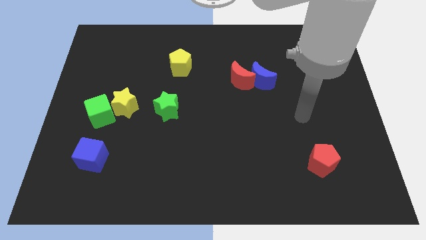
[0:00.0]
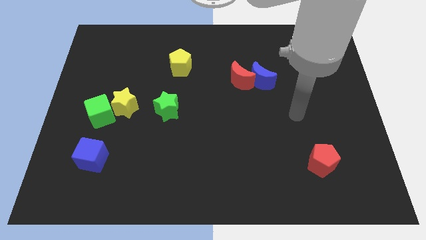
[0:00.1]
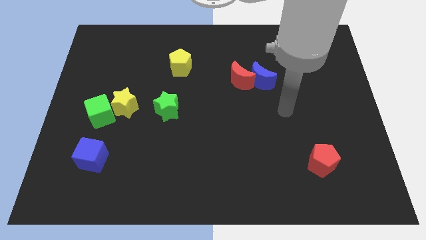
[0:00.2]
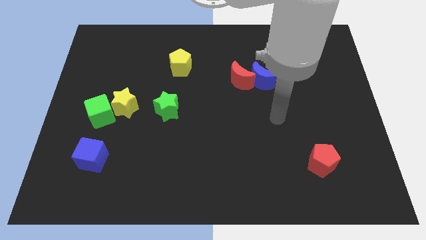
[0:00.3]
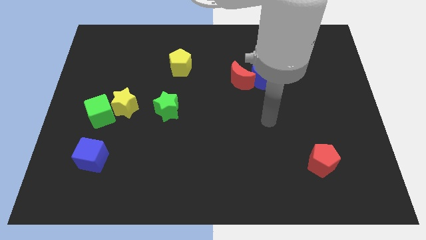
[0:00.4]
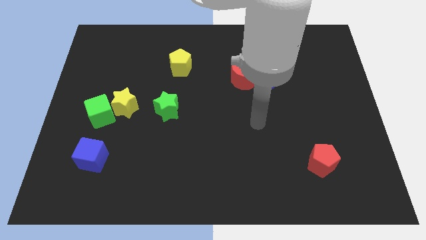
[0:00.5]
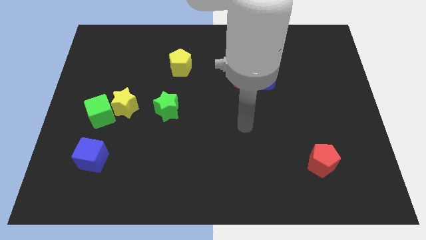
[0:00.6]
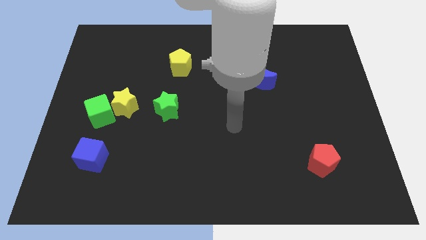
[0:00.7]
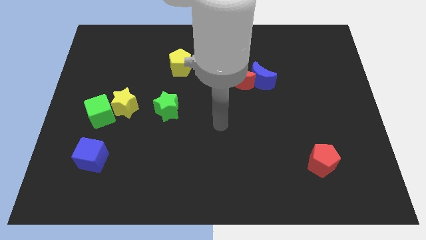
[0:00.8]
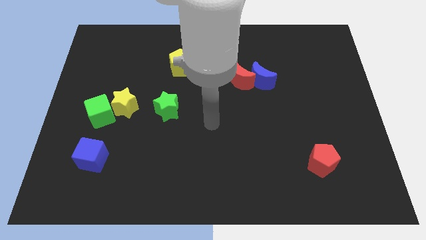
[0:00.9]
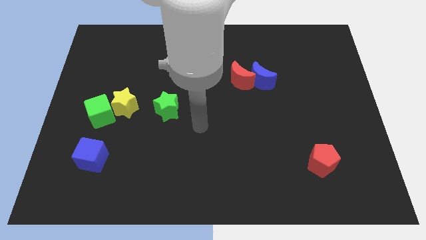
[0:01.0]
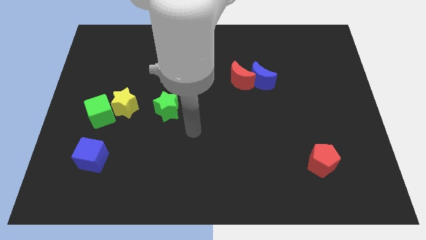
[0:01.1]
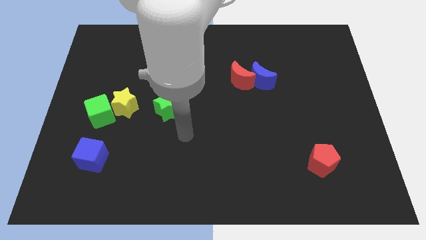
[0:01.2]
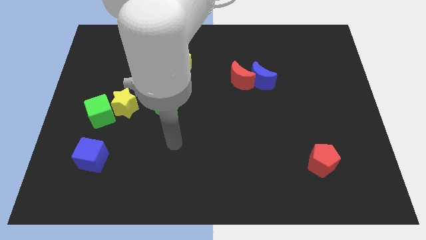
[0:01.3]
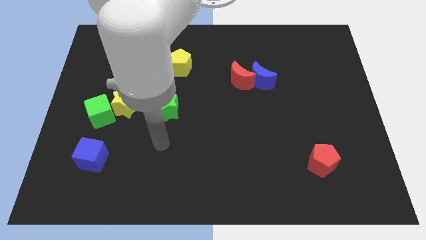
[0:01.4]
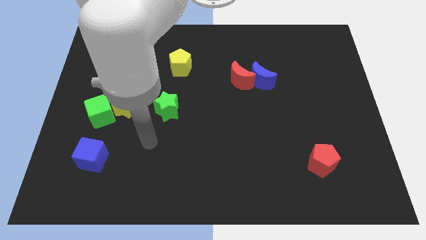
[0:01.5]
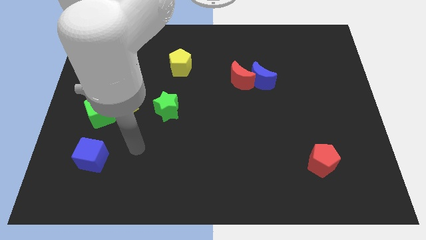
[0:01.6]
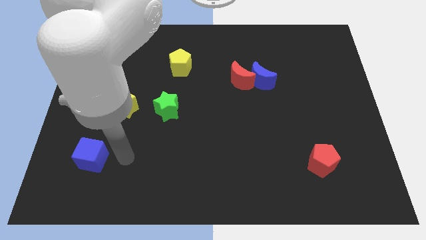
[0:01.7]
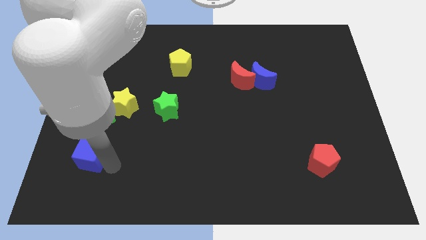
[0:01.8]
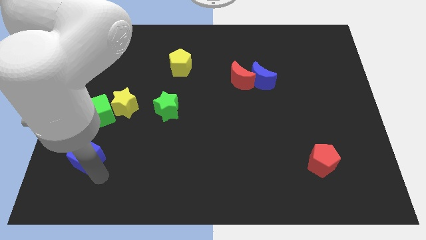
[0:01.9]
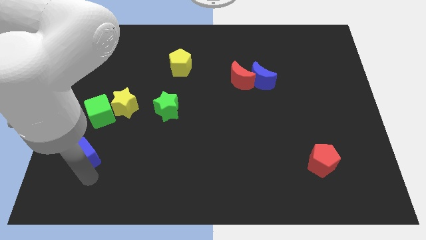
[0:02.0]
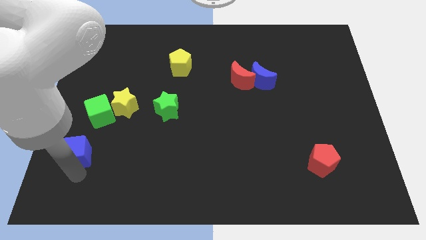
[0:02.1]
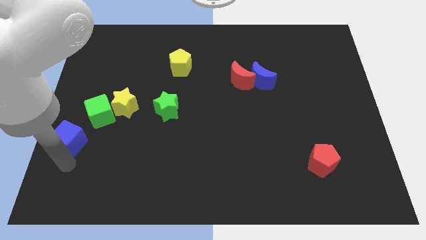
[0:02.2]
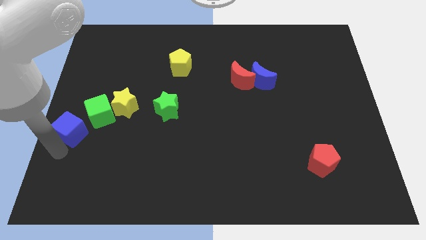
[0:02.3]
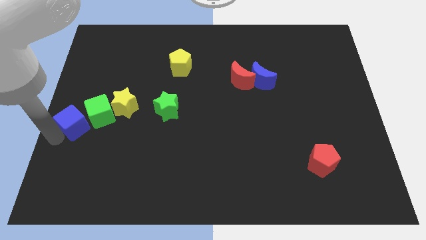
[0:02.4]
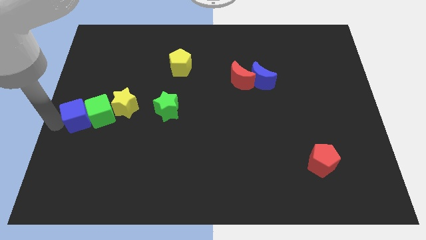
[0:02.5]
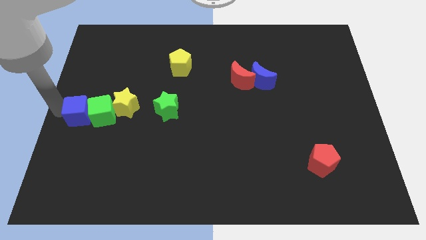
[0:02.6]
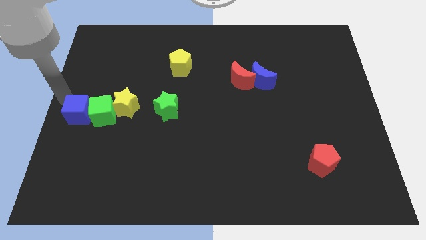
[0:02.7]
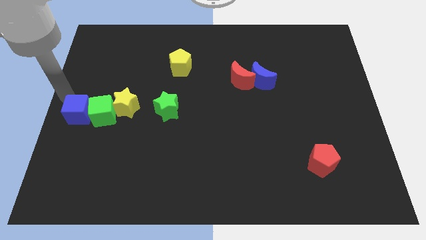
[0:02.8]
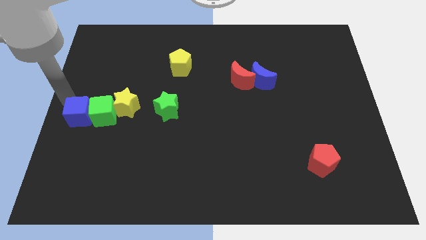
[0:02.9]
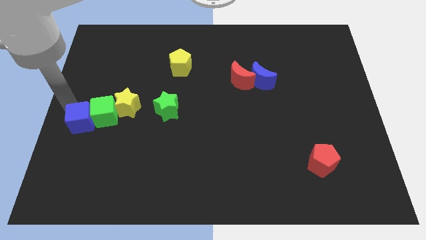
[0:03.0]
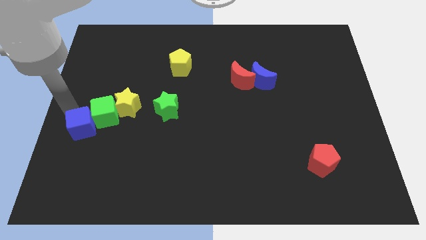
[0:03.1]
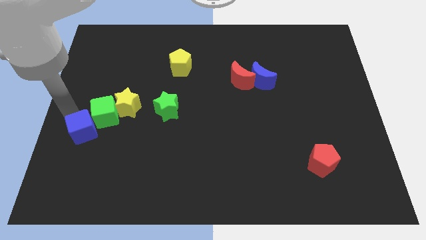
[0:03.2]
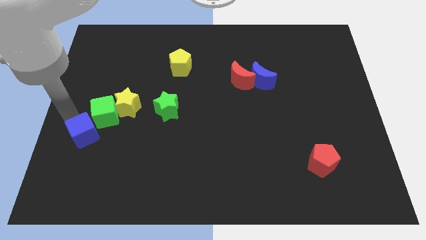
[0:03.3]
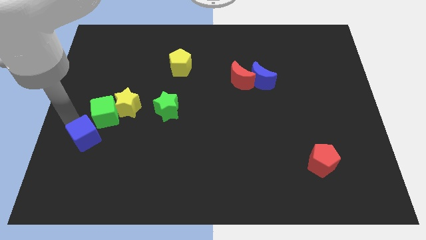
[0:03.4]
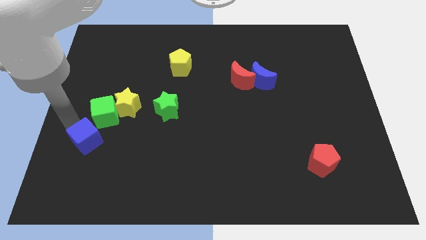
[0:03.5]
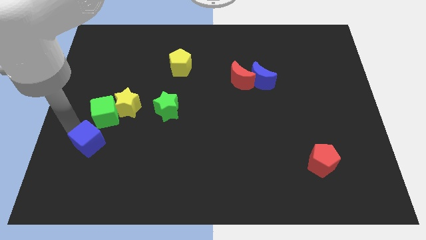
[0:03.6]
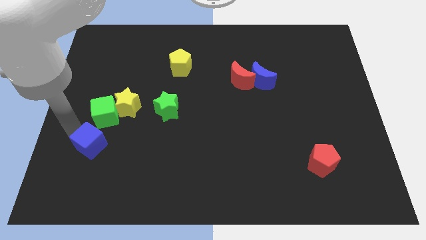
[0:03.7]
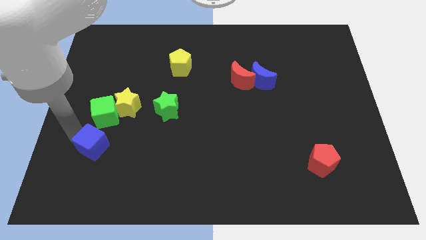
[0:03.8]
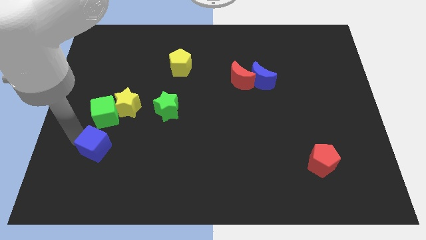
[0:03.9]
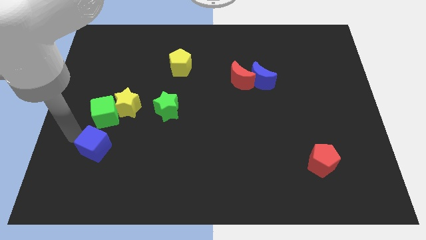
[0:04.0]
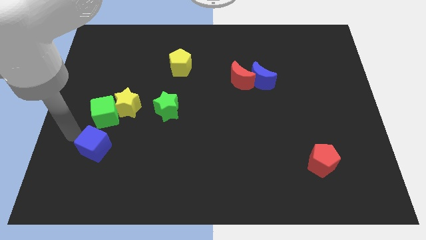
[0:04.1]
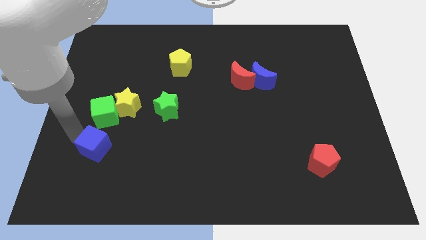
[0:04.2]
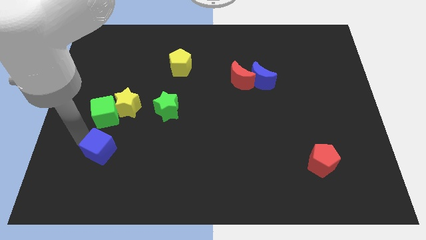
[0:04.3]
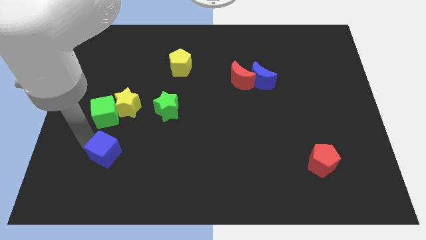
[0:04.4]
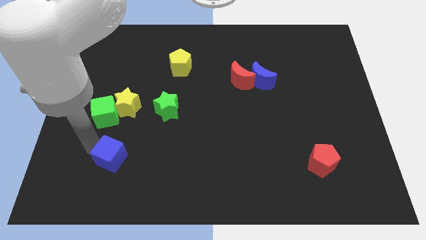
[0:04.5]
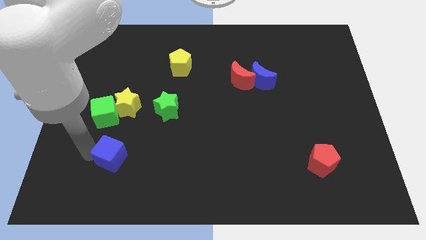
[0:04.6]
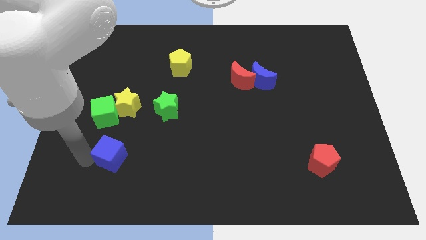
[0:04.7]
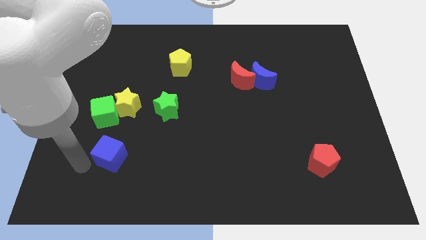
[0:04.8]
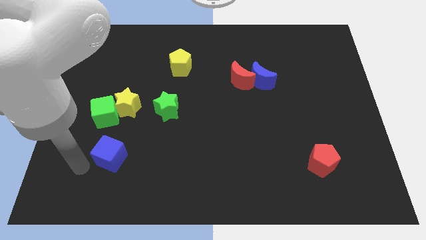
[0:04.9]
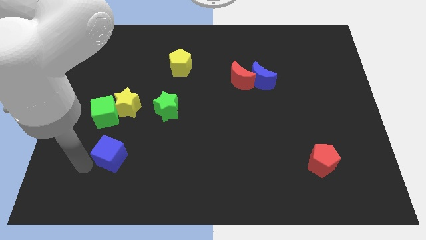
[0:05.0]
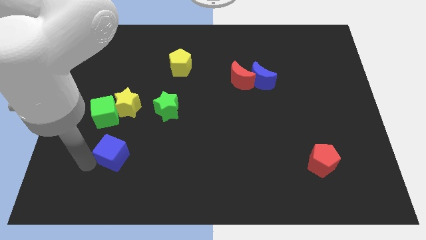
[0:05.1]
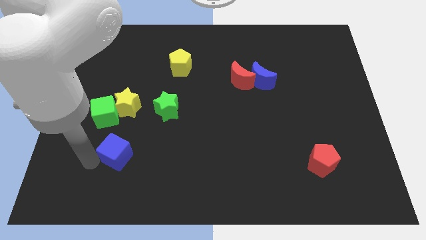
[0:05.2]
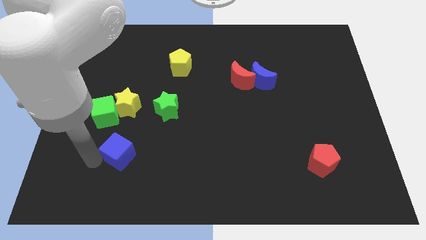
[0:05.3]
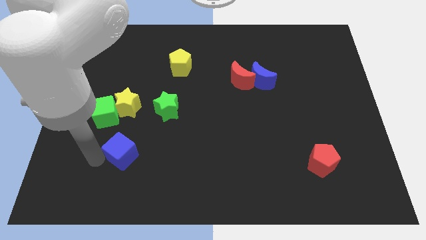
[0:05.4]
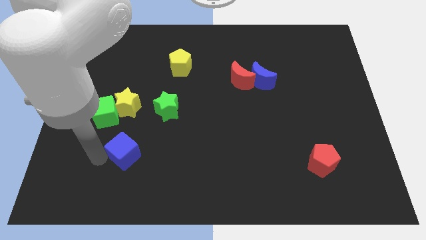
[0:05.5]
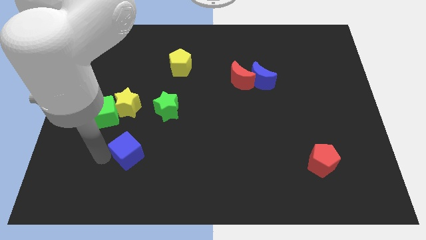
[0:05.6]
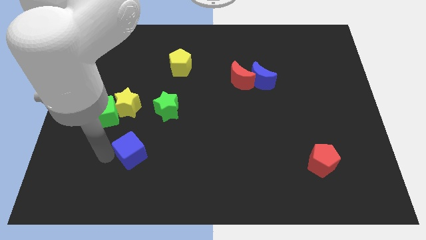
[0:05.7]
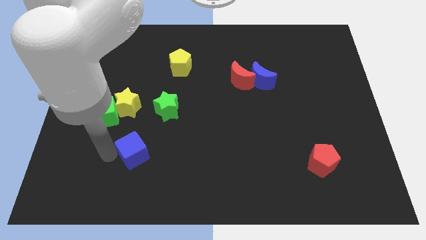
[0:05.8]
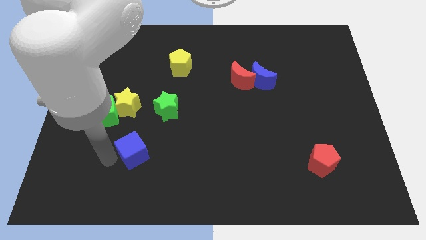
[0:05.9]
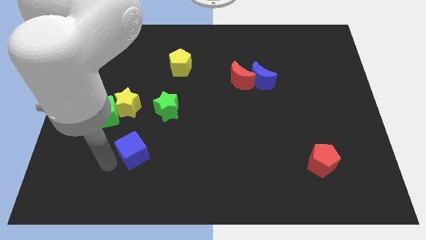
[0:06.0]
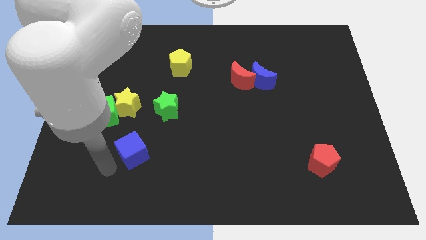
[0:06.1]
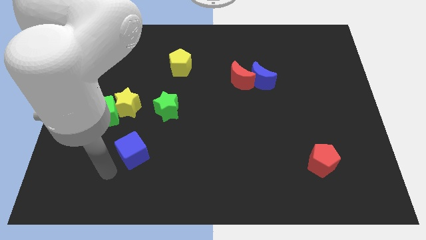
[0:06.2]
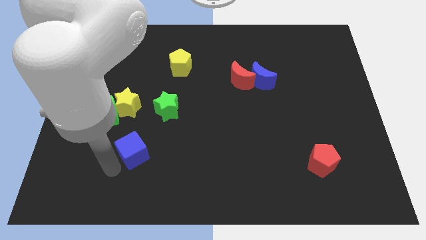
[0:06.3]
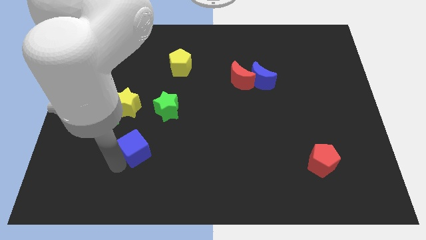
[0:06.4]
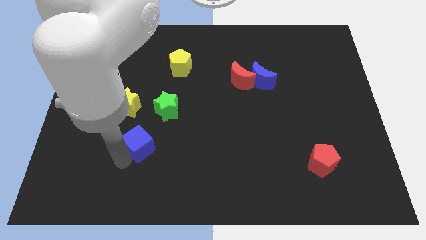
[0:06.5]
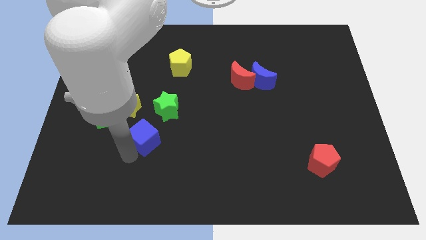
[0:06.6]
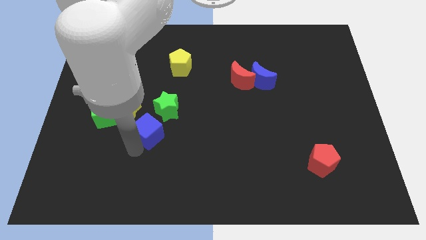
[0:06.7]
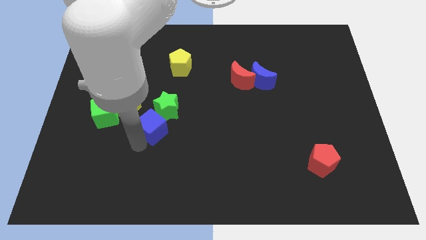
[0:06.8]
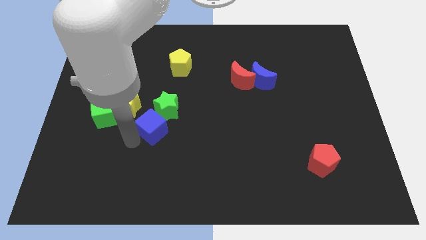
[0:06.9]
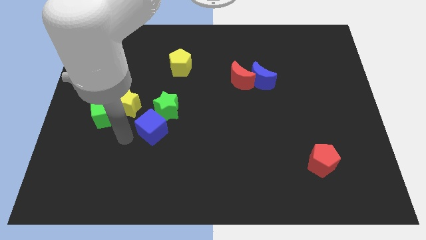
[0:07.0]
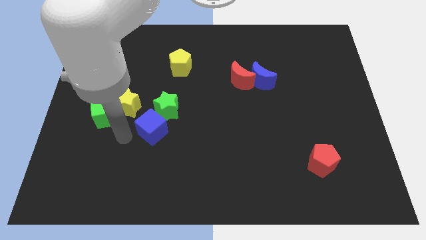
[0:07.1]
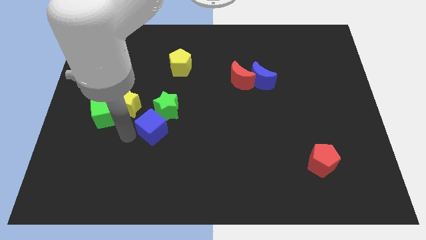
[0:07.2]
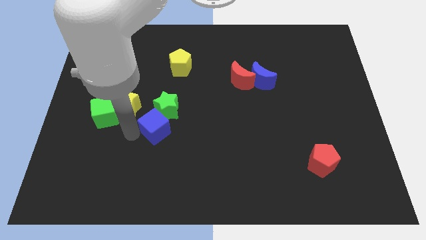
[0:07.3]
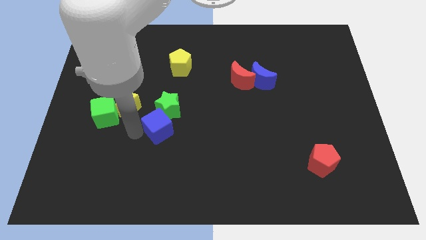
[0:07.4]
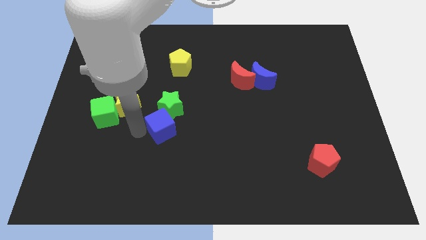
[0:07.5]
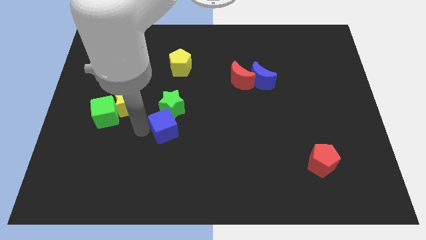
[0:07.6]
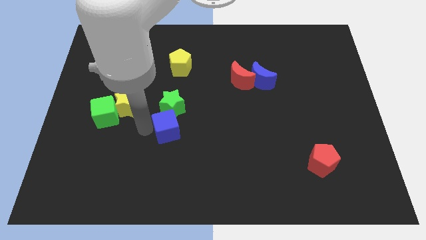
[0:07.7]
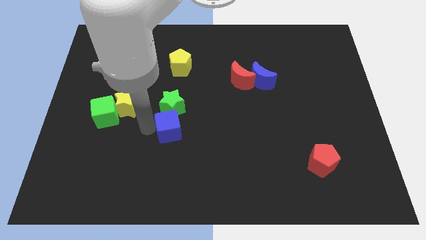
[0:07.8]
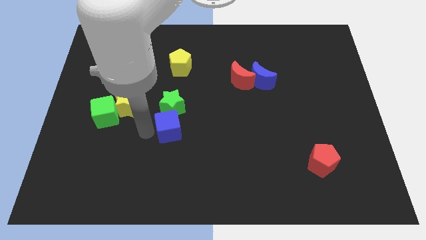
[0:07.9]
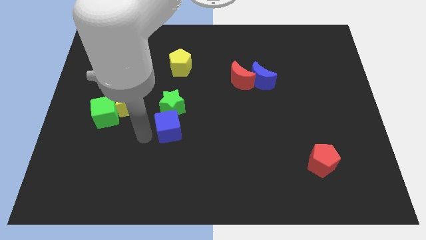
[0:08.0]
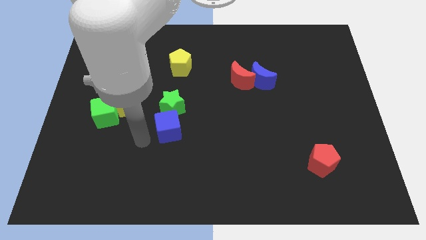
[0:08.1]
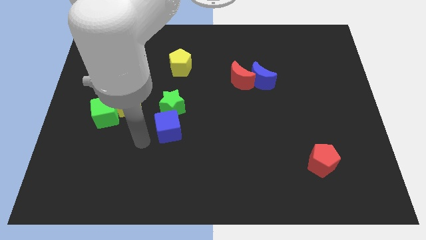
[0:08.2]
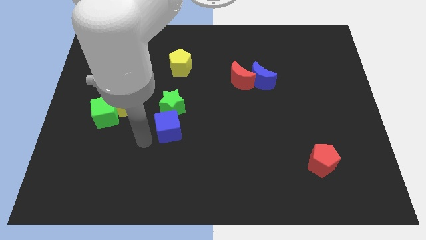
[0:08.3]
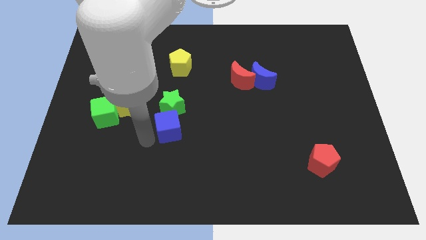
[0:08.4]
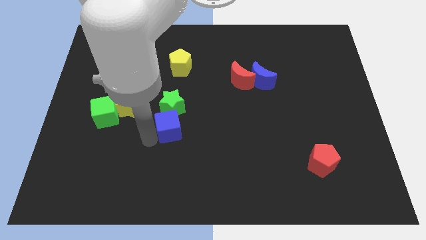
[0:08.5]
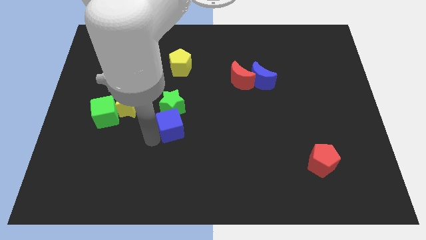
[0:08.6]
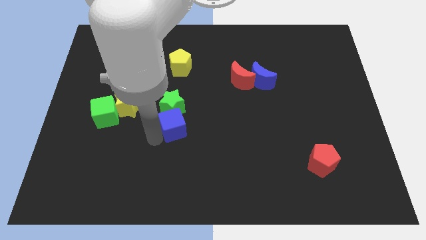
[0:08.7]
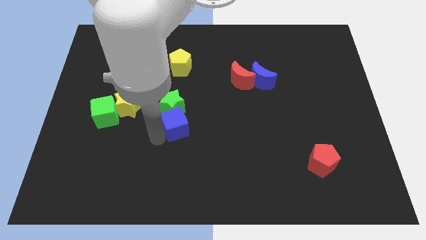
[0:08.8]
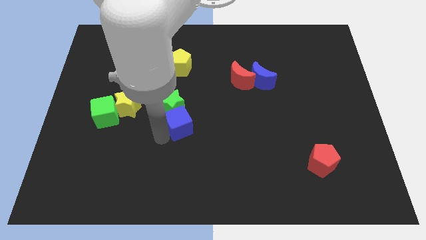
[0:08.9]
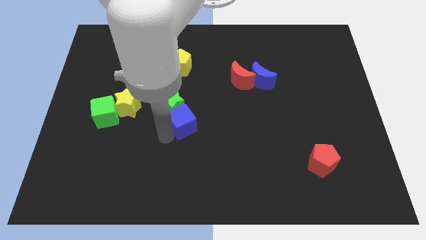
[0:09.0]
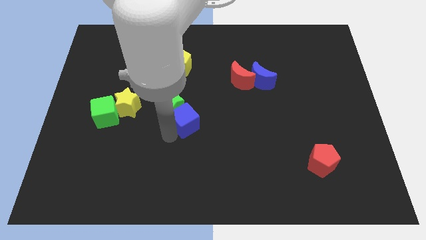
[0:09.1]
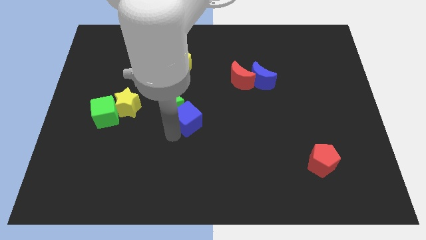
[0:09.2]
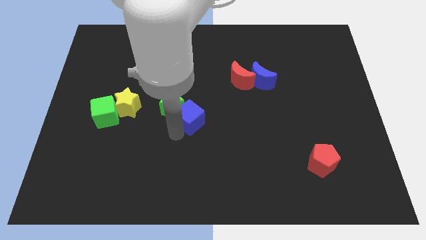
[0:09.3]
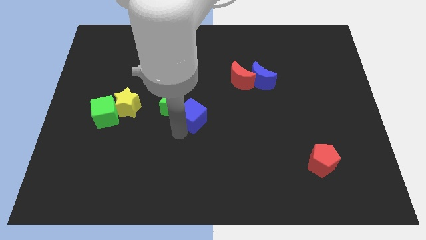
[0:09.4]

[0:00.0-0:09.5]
move the blue cube up and to the right diagonally
